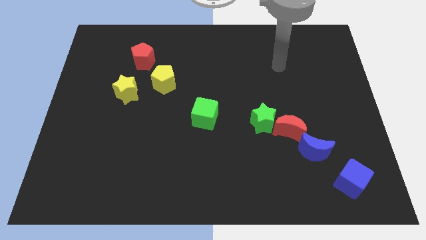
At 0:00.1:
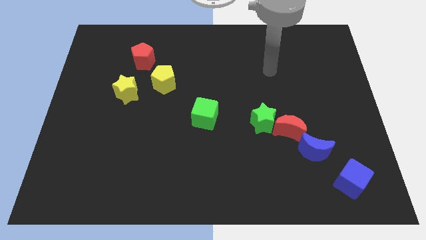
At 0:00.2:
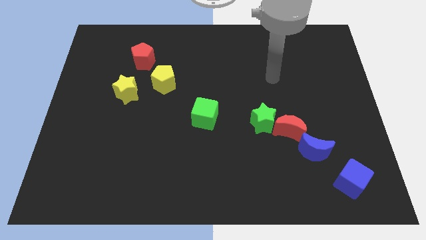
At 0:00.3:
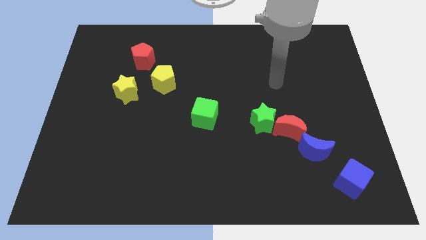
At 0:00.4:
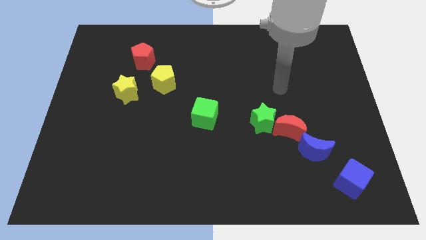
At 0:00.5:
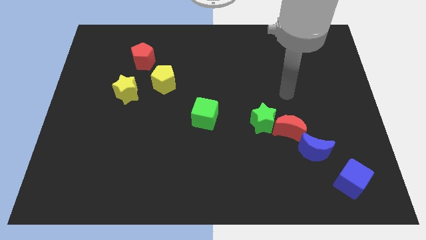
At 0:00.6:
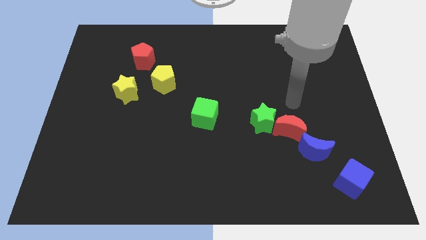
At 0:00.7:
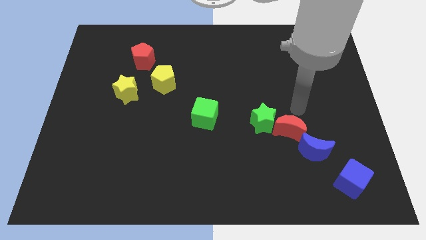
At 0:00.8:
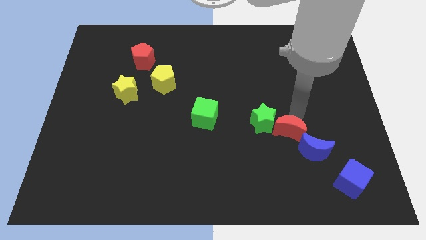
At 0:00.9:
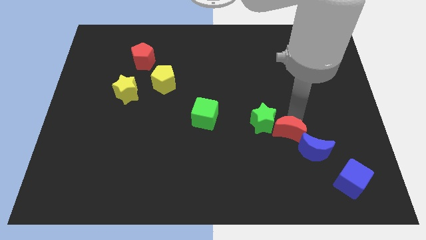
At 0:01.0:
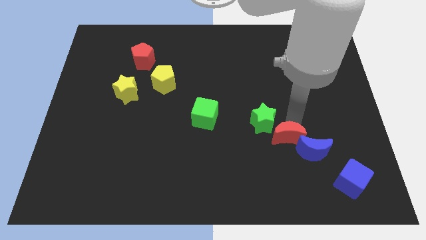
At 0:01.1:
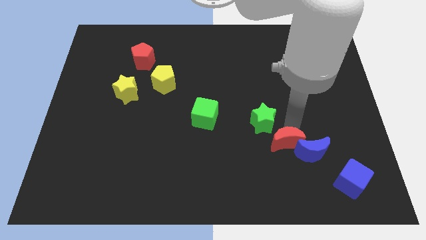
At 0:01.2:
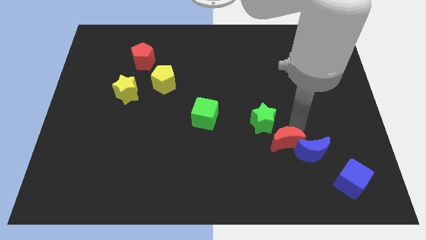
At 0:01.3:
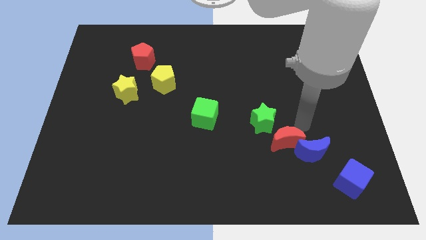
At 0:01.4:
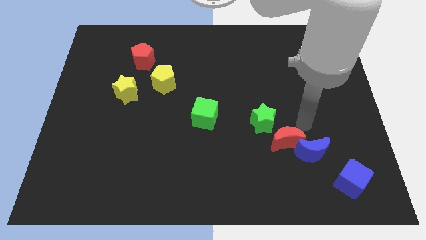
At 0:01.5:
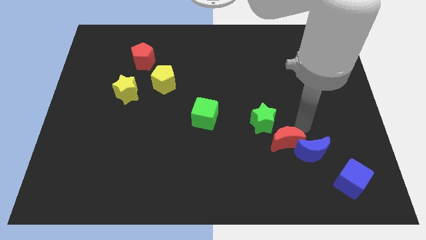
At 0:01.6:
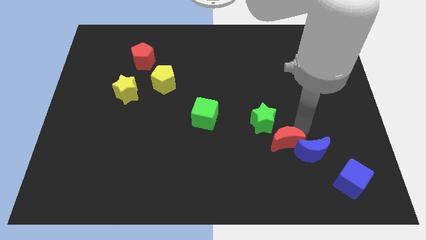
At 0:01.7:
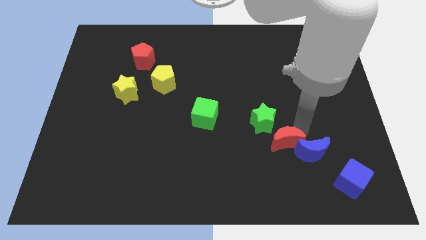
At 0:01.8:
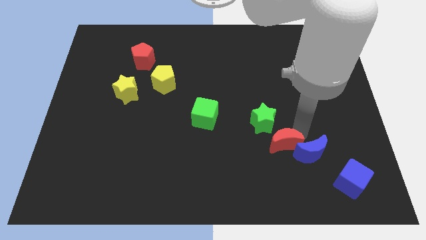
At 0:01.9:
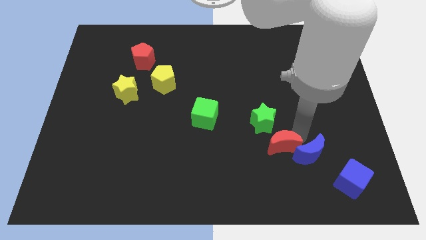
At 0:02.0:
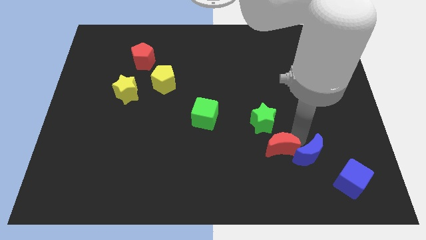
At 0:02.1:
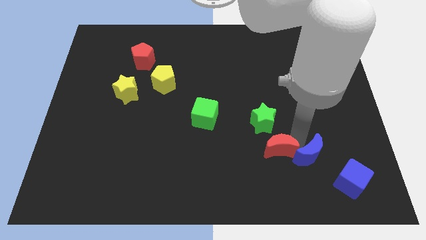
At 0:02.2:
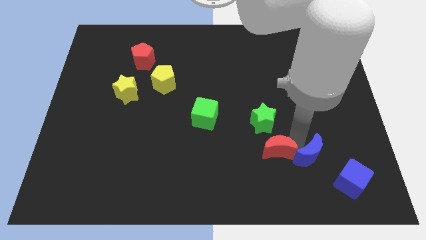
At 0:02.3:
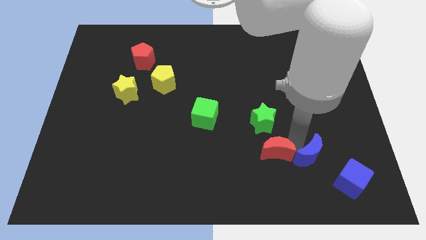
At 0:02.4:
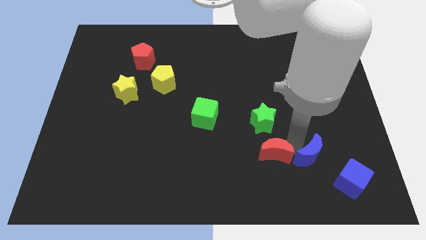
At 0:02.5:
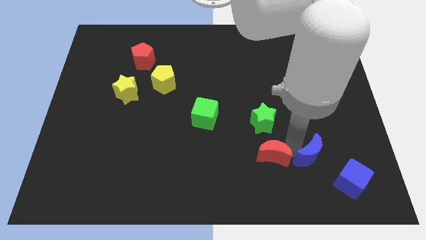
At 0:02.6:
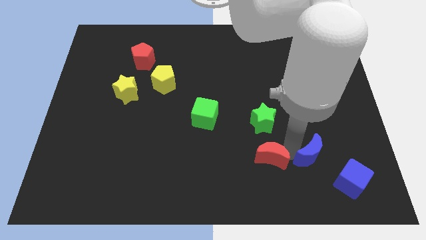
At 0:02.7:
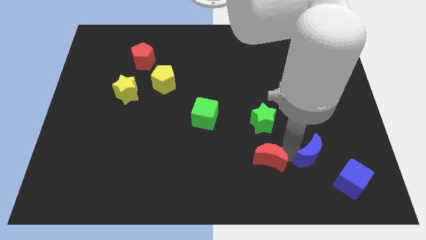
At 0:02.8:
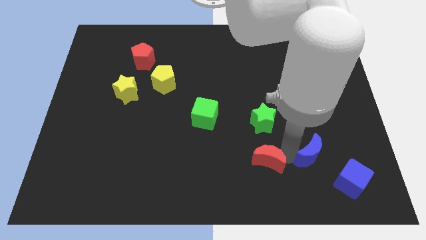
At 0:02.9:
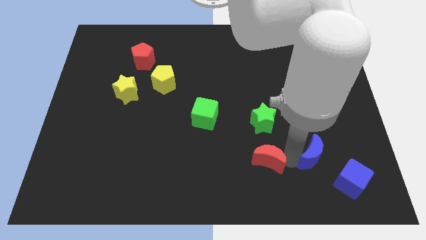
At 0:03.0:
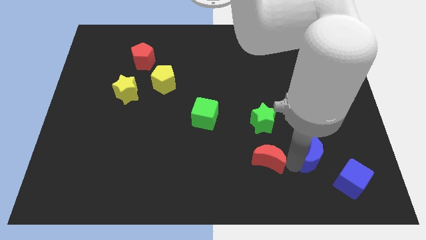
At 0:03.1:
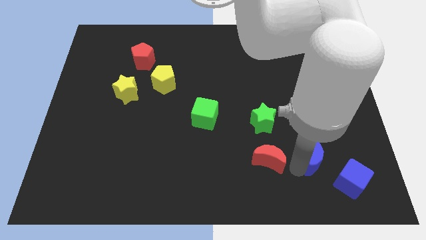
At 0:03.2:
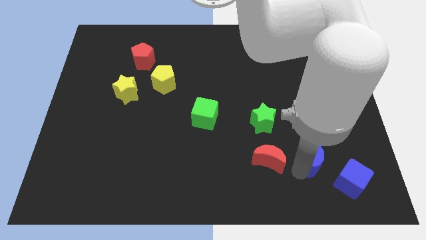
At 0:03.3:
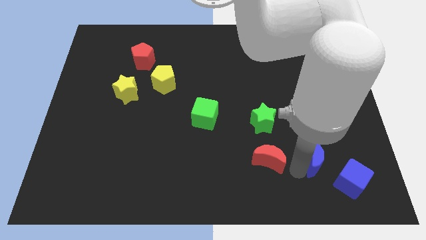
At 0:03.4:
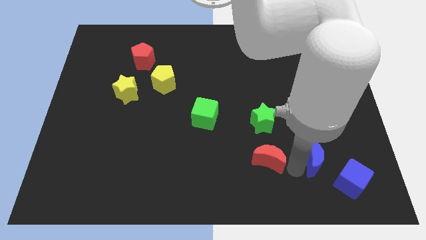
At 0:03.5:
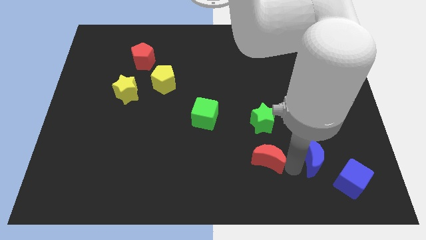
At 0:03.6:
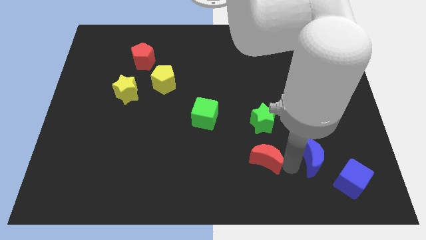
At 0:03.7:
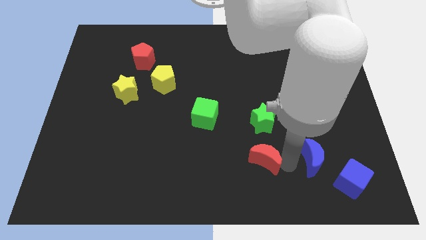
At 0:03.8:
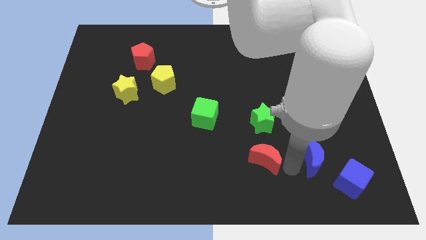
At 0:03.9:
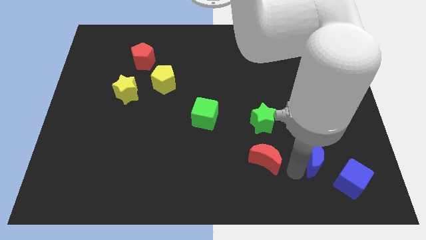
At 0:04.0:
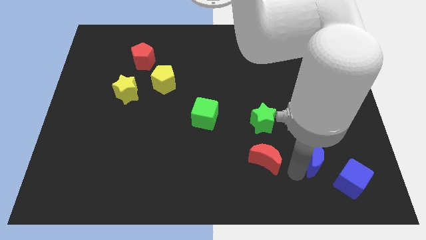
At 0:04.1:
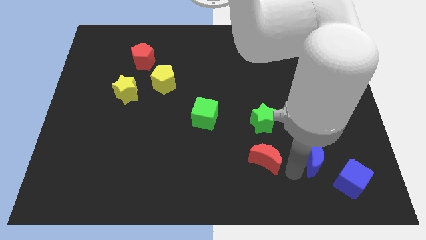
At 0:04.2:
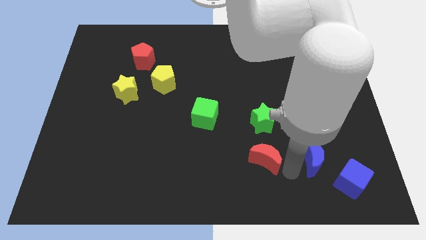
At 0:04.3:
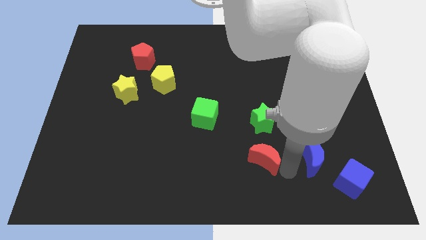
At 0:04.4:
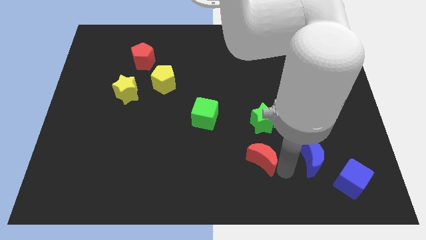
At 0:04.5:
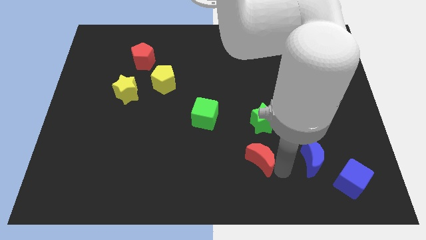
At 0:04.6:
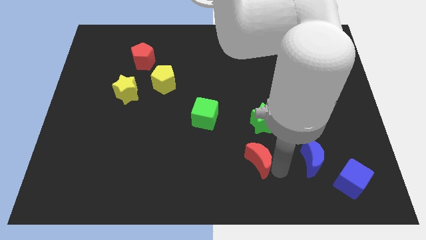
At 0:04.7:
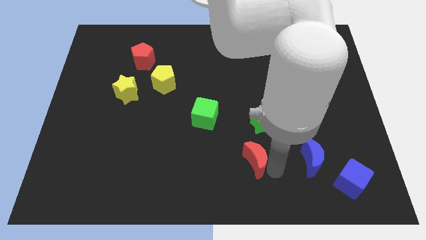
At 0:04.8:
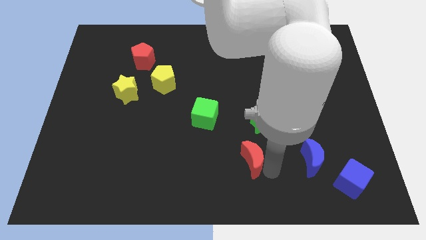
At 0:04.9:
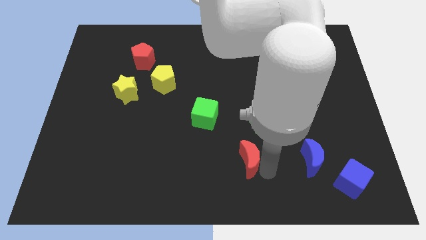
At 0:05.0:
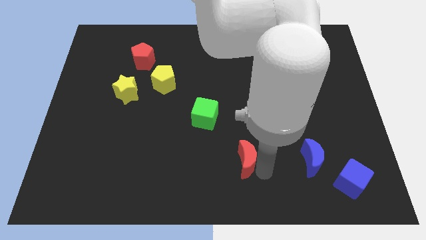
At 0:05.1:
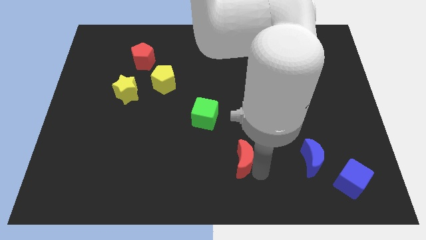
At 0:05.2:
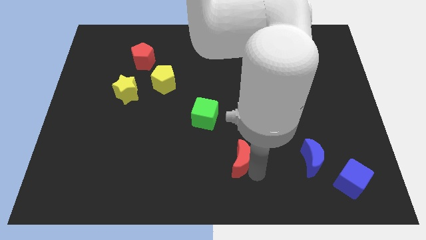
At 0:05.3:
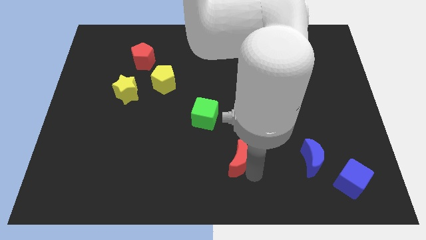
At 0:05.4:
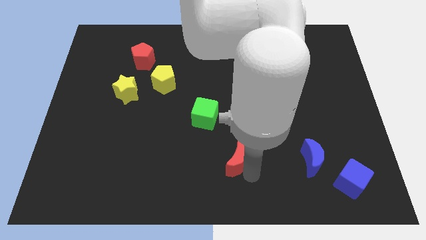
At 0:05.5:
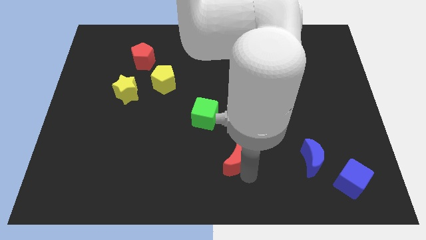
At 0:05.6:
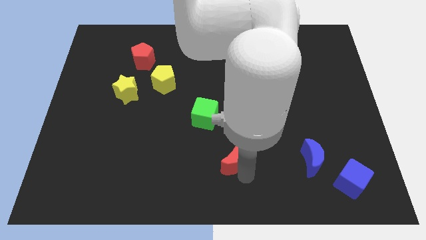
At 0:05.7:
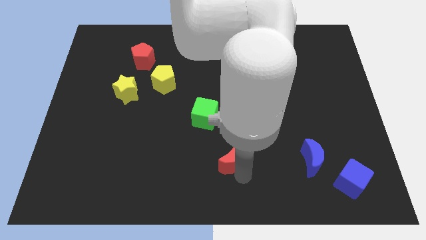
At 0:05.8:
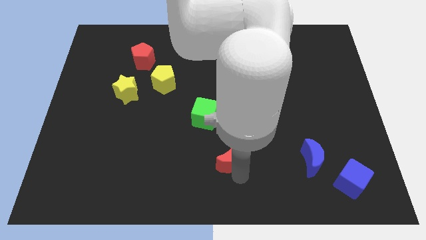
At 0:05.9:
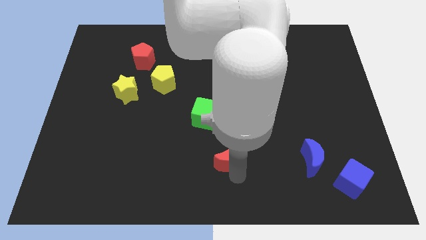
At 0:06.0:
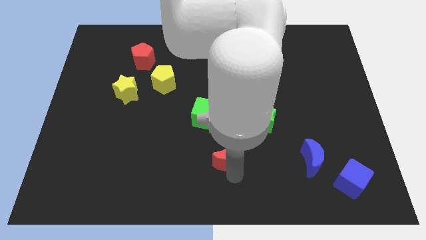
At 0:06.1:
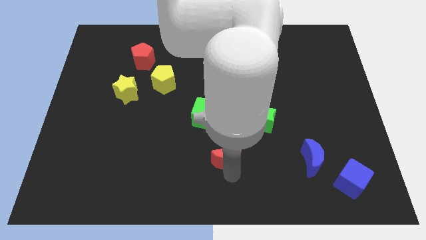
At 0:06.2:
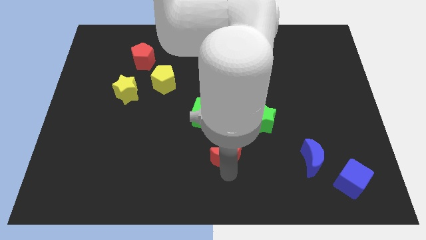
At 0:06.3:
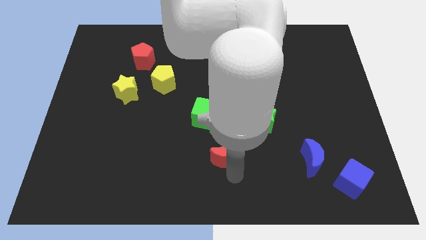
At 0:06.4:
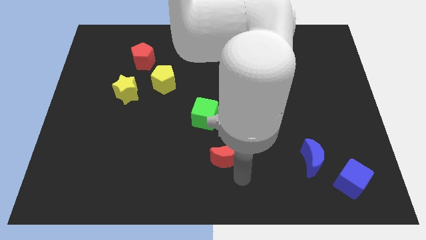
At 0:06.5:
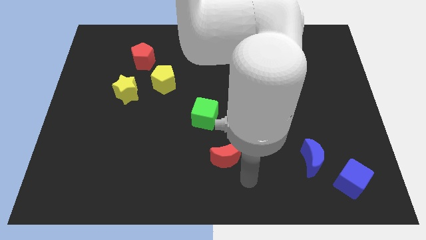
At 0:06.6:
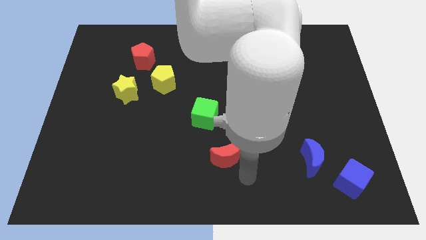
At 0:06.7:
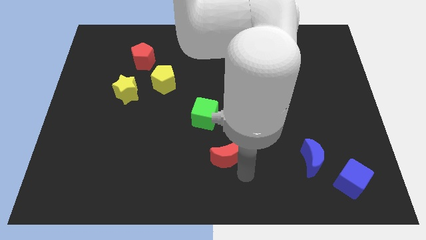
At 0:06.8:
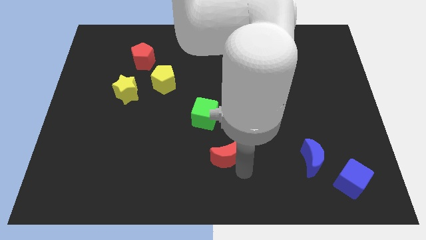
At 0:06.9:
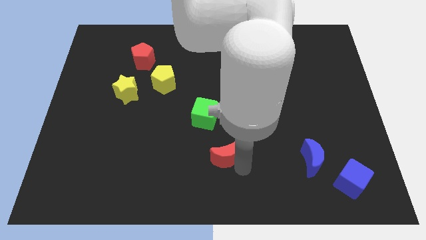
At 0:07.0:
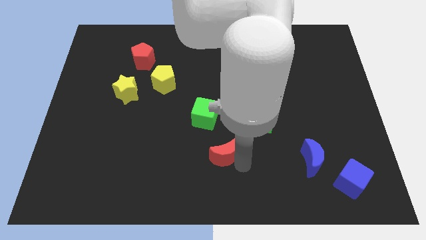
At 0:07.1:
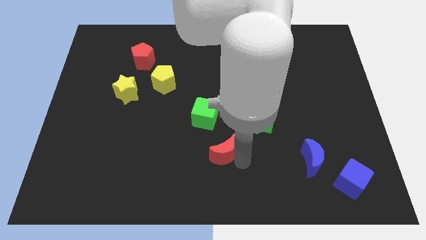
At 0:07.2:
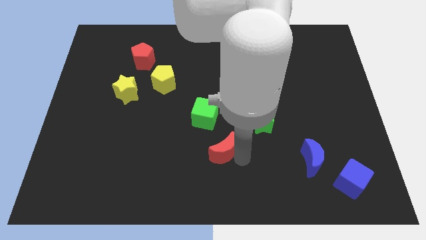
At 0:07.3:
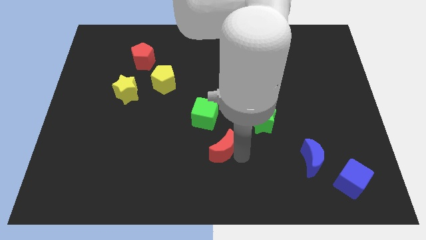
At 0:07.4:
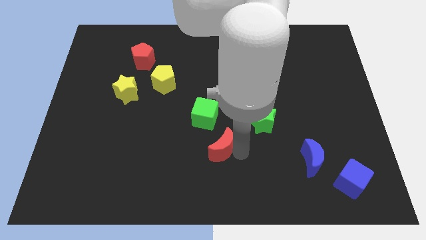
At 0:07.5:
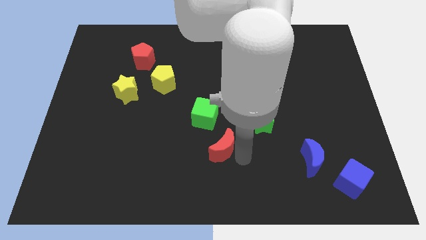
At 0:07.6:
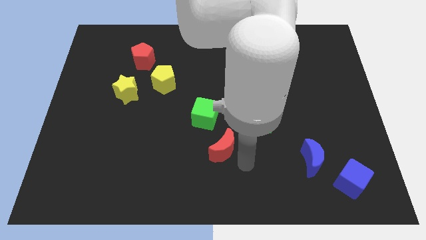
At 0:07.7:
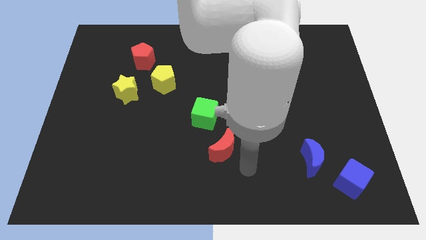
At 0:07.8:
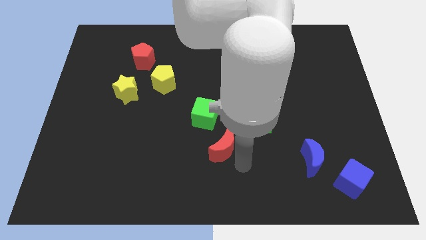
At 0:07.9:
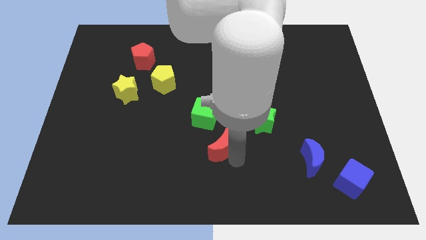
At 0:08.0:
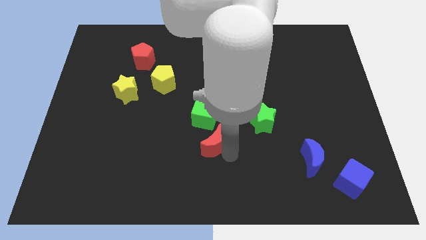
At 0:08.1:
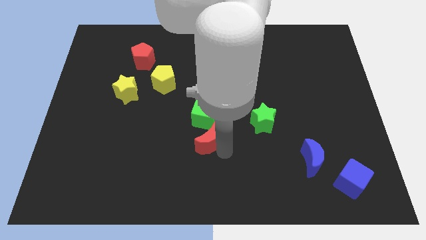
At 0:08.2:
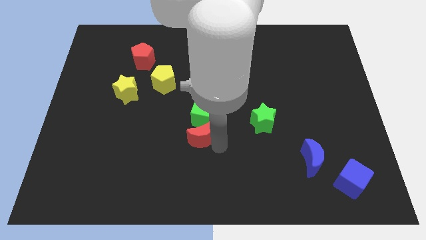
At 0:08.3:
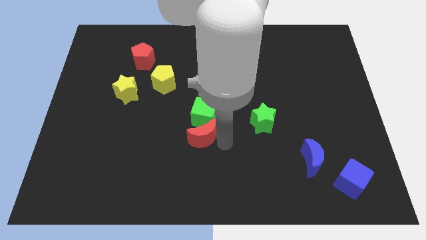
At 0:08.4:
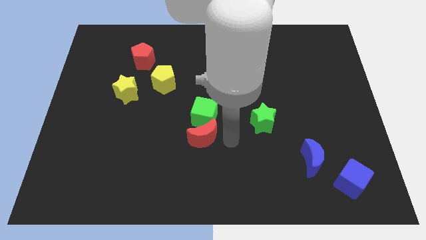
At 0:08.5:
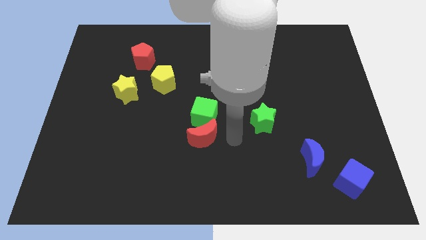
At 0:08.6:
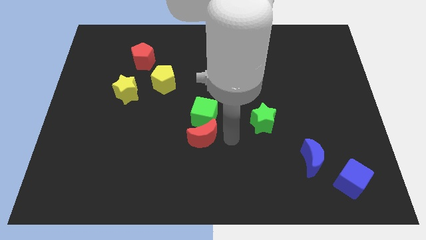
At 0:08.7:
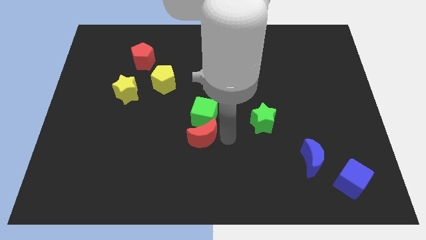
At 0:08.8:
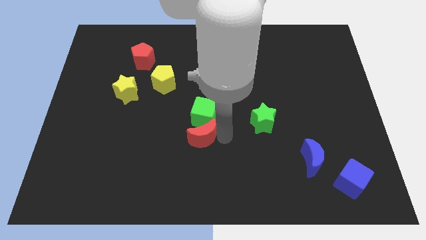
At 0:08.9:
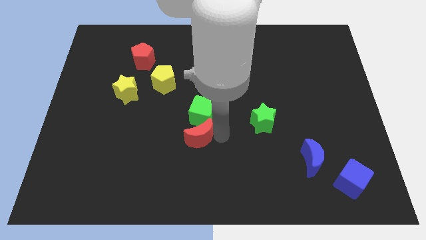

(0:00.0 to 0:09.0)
move the red moon left
